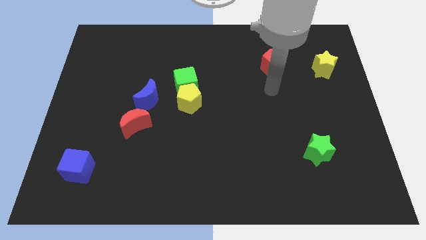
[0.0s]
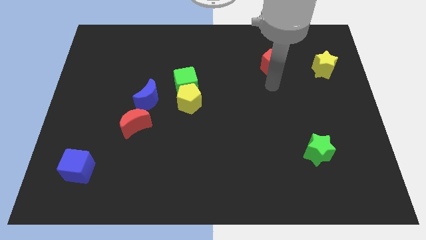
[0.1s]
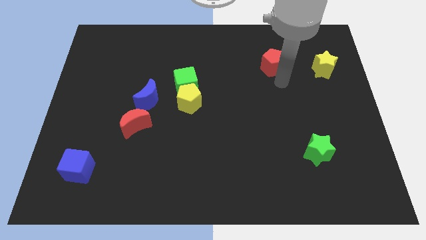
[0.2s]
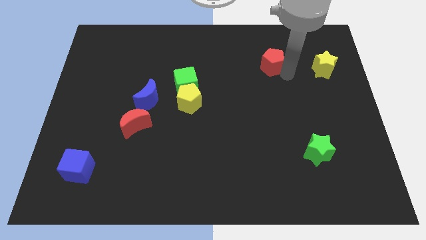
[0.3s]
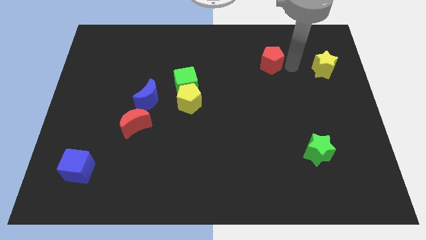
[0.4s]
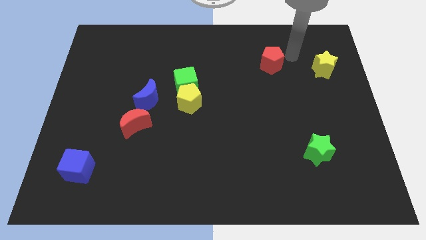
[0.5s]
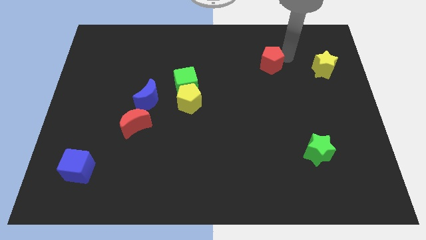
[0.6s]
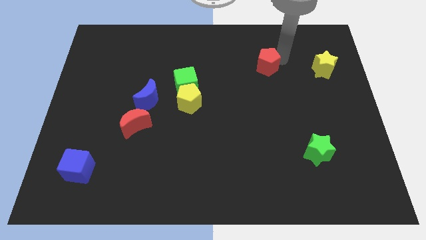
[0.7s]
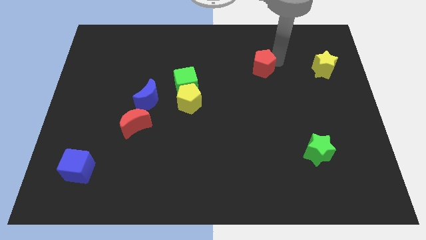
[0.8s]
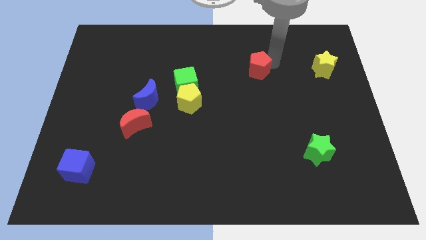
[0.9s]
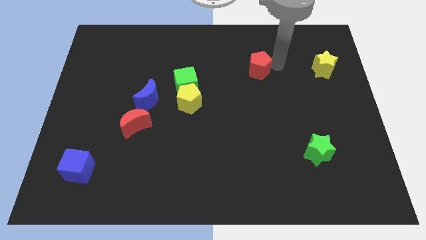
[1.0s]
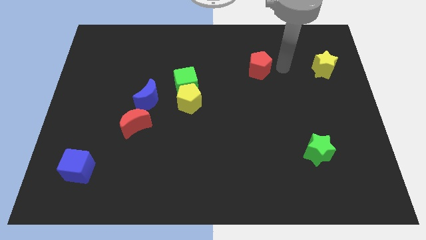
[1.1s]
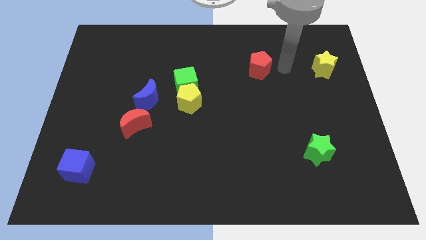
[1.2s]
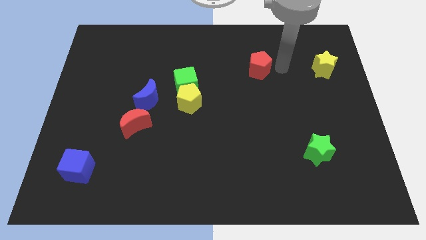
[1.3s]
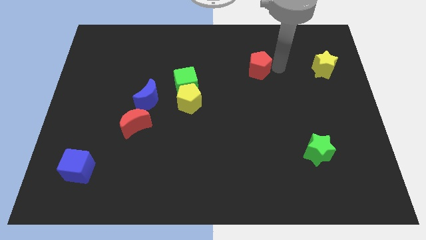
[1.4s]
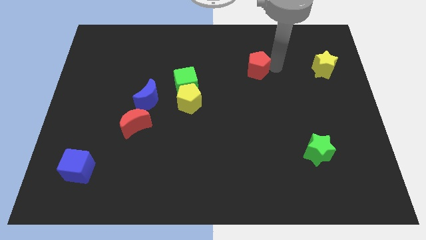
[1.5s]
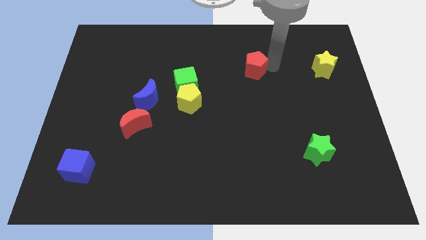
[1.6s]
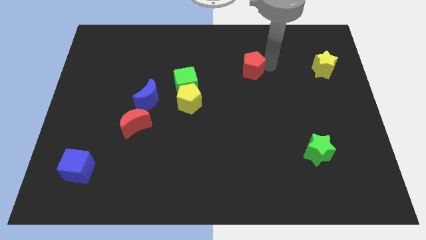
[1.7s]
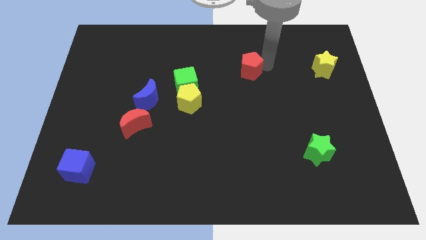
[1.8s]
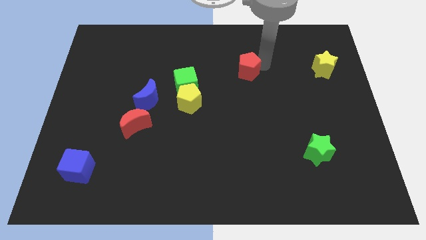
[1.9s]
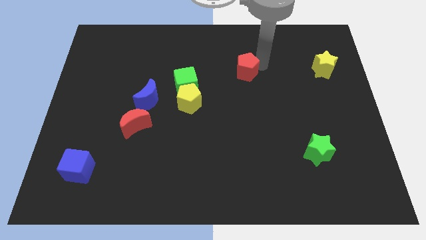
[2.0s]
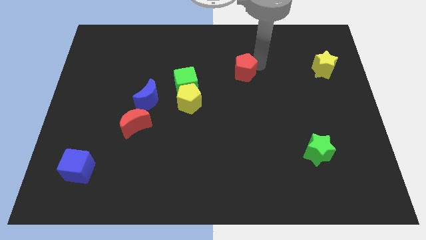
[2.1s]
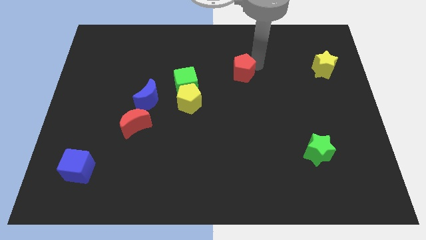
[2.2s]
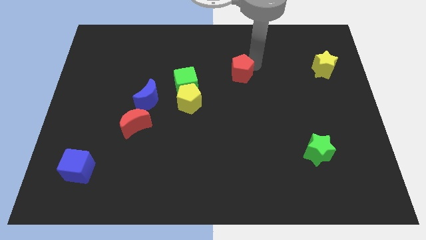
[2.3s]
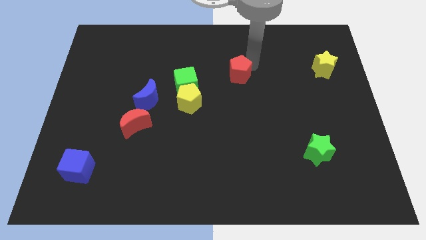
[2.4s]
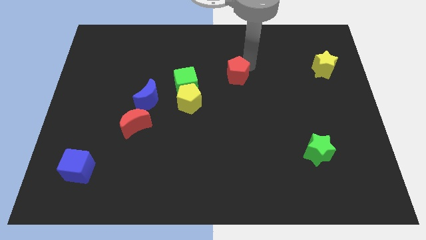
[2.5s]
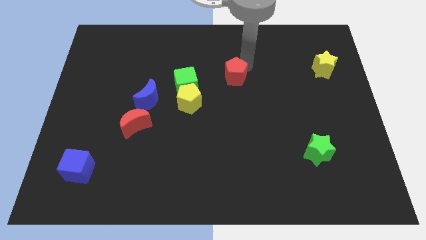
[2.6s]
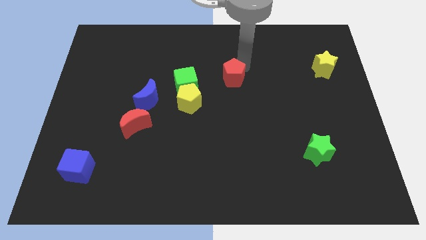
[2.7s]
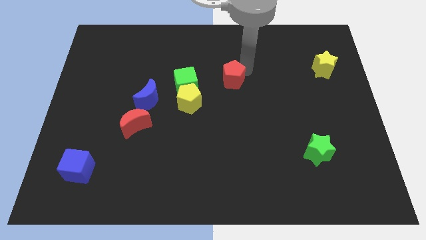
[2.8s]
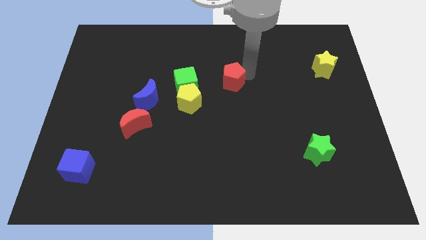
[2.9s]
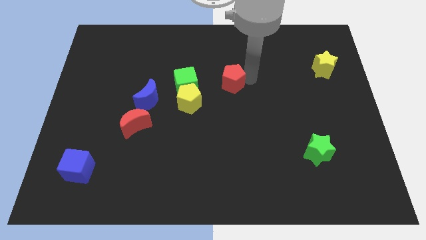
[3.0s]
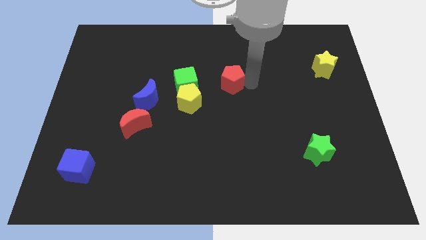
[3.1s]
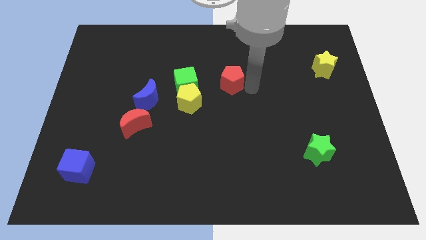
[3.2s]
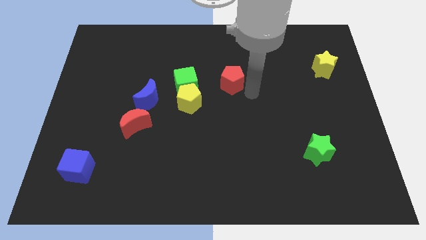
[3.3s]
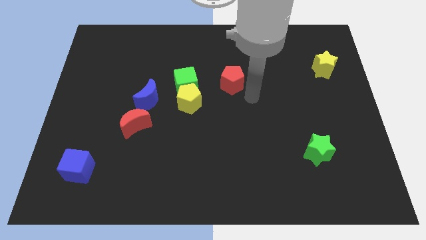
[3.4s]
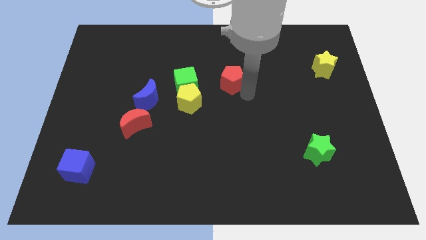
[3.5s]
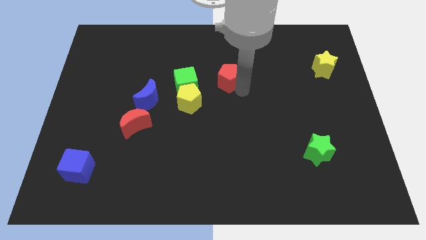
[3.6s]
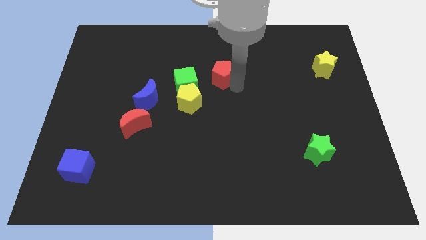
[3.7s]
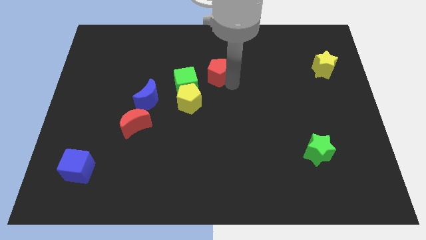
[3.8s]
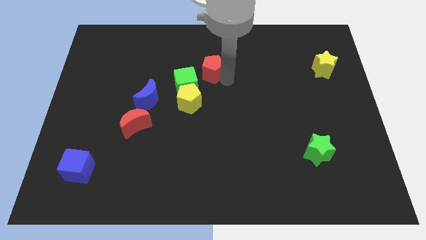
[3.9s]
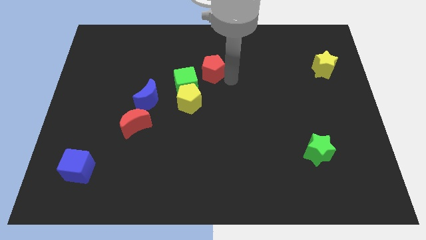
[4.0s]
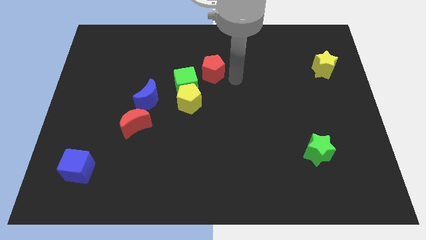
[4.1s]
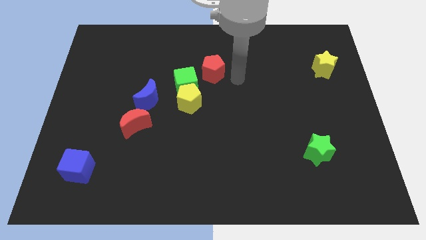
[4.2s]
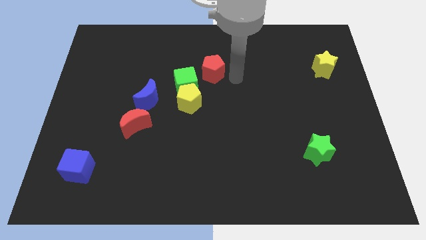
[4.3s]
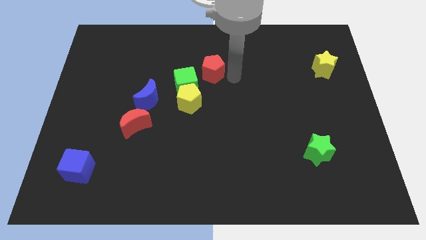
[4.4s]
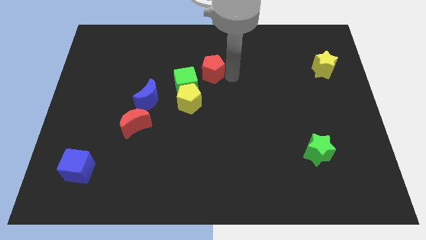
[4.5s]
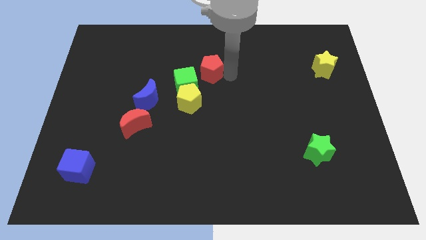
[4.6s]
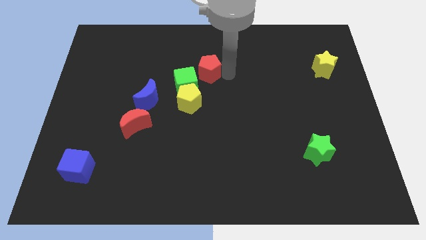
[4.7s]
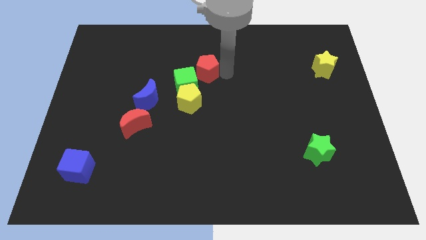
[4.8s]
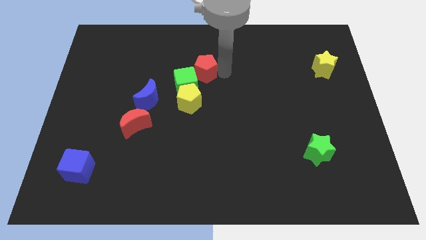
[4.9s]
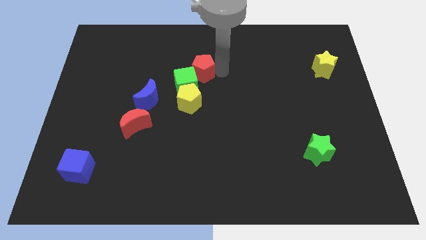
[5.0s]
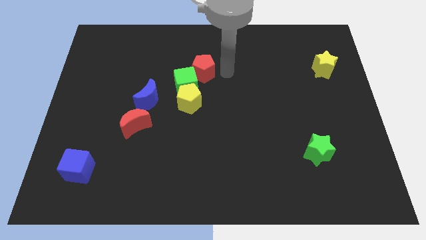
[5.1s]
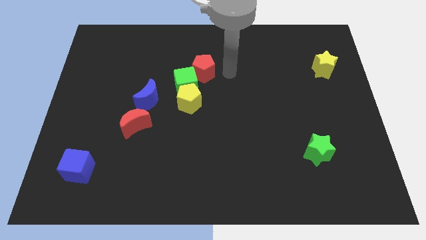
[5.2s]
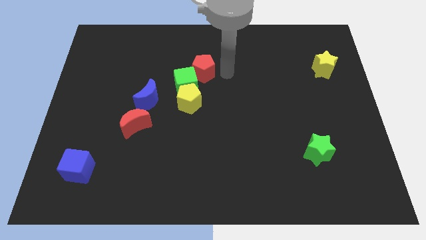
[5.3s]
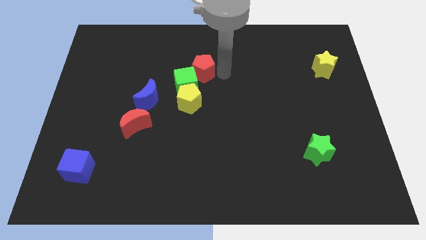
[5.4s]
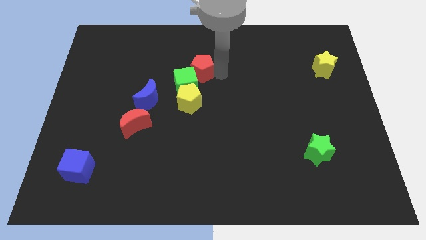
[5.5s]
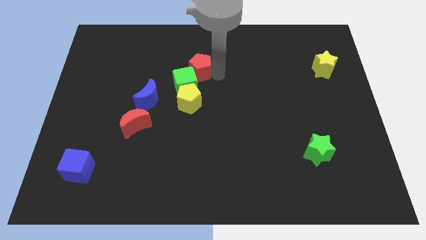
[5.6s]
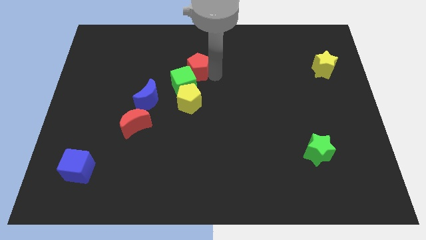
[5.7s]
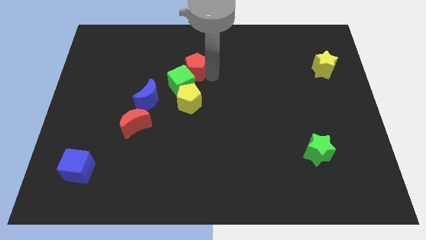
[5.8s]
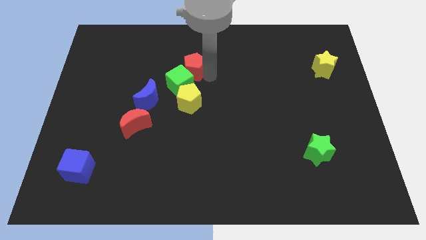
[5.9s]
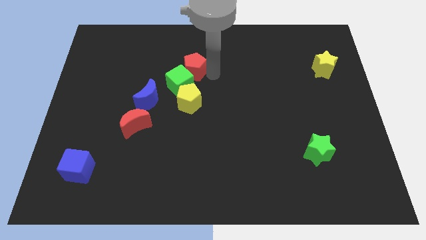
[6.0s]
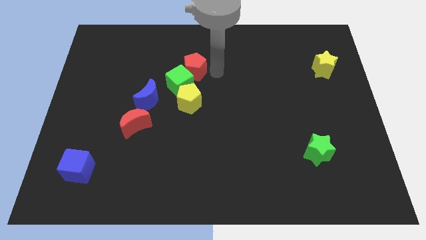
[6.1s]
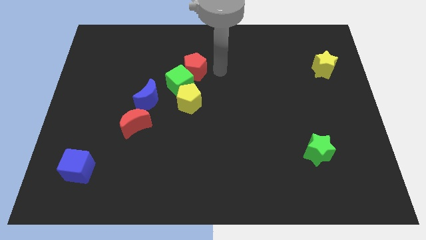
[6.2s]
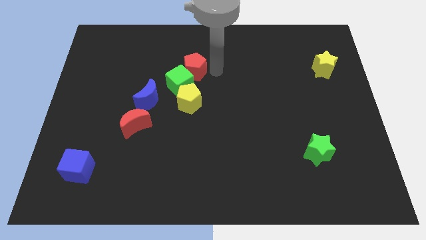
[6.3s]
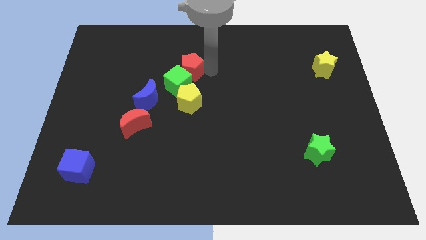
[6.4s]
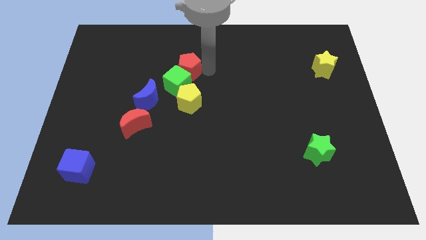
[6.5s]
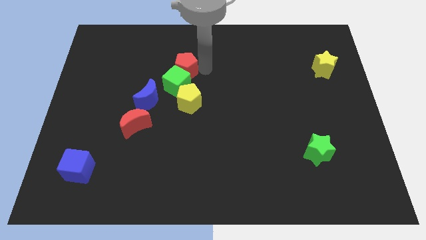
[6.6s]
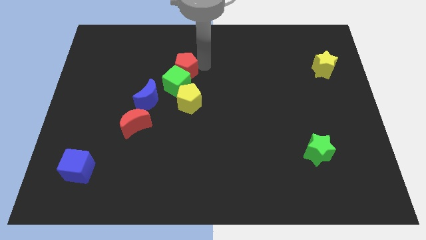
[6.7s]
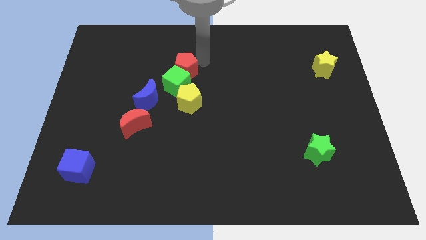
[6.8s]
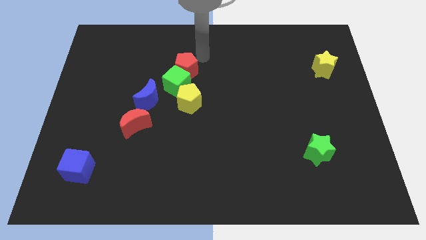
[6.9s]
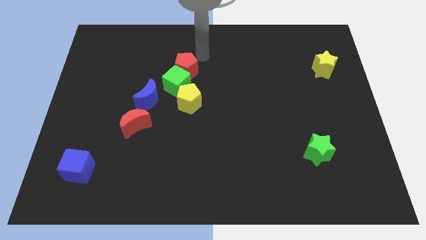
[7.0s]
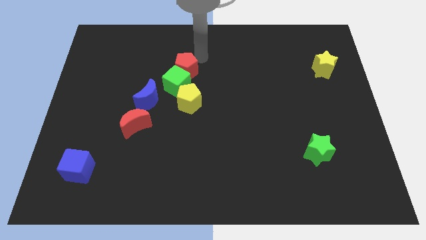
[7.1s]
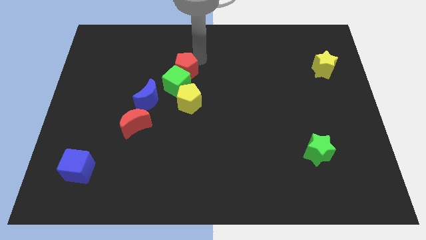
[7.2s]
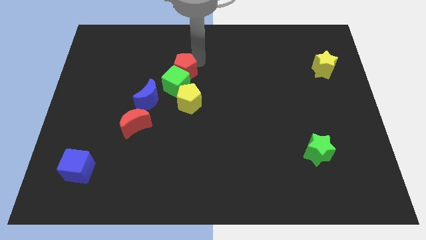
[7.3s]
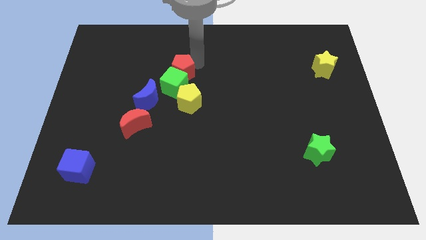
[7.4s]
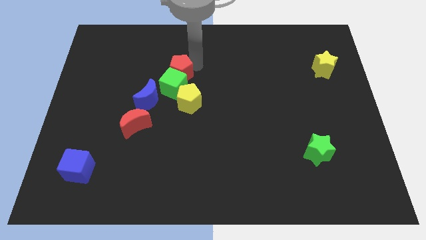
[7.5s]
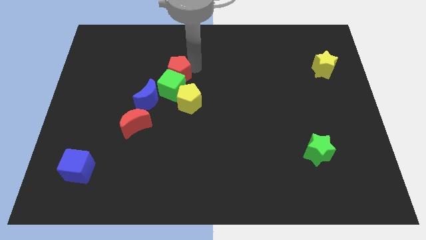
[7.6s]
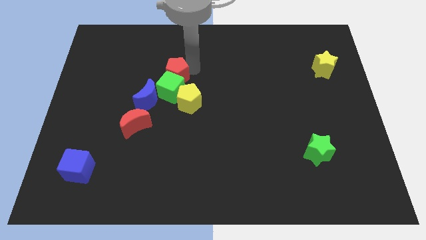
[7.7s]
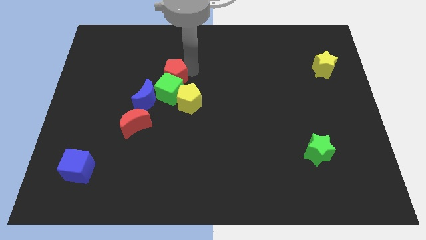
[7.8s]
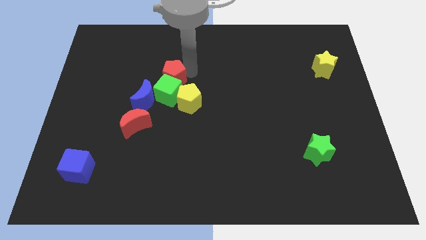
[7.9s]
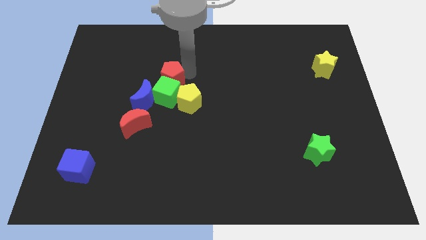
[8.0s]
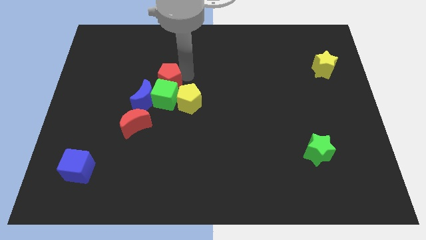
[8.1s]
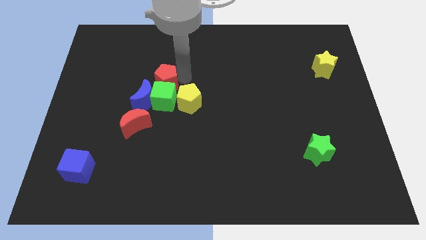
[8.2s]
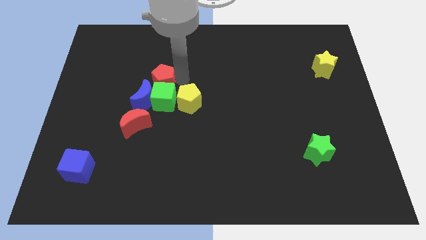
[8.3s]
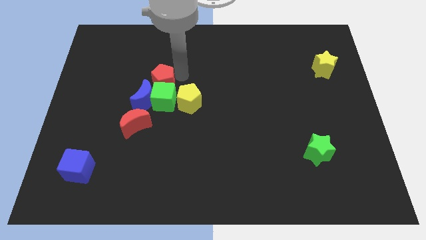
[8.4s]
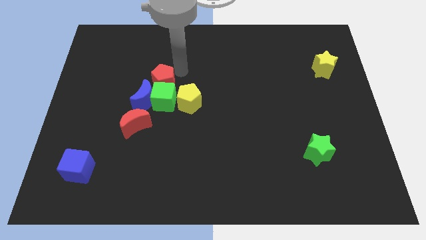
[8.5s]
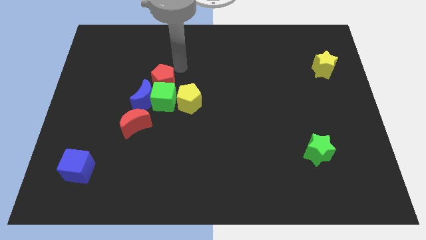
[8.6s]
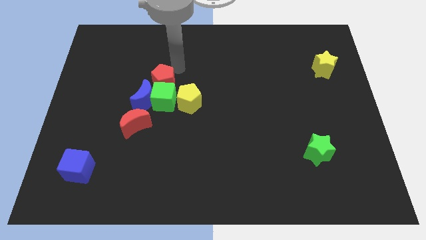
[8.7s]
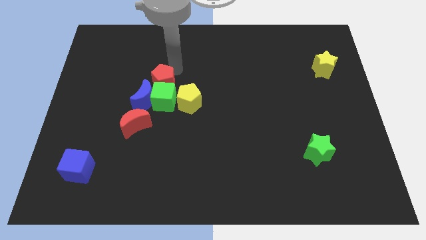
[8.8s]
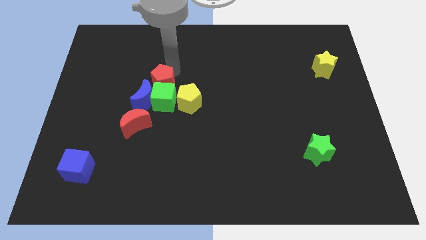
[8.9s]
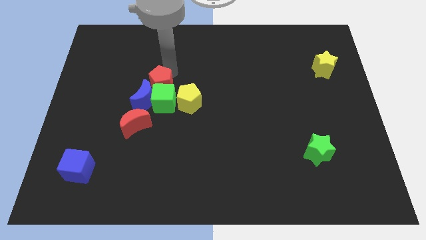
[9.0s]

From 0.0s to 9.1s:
slide the red pentagon next to the blue moon
